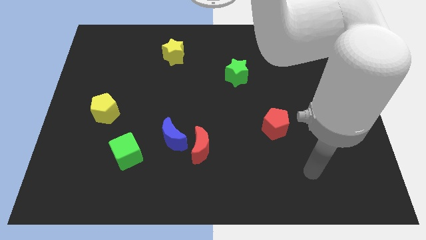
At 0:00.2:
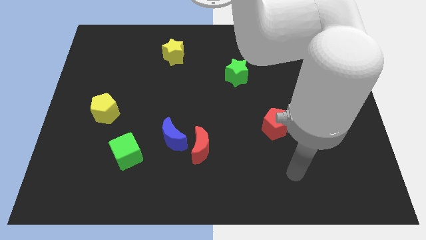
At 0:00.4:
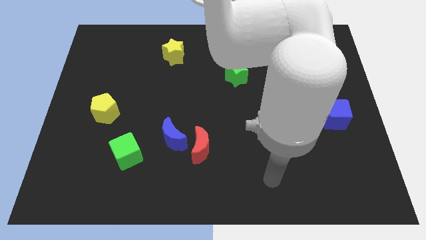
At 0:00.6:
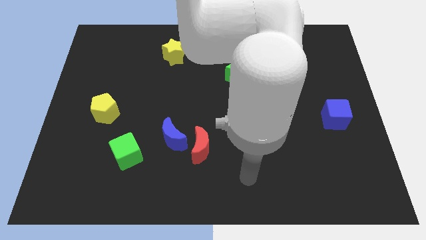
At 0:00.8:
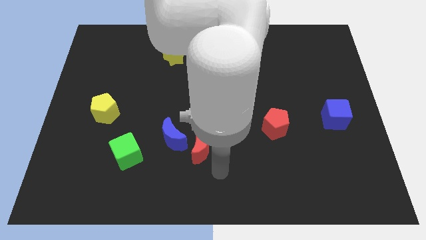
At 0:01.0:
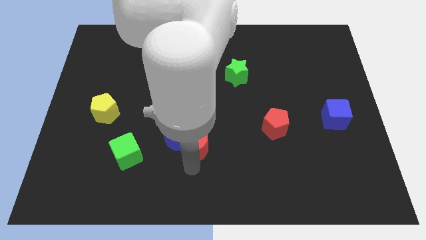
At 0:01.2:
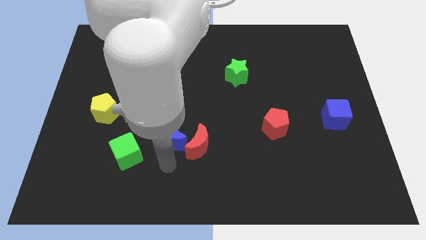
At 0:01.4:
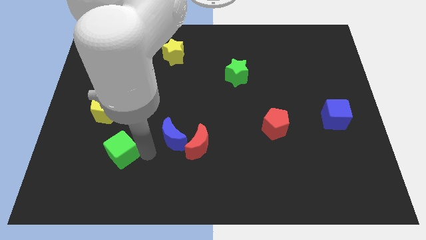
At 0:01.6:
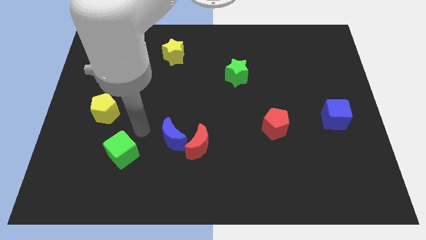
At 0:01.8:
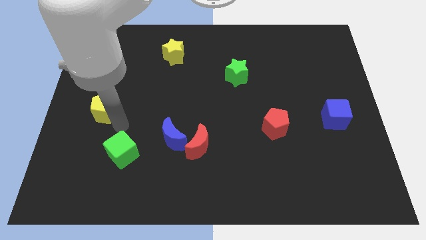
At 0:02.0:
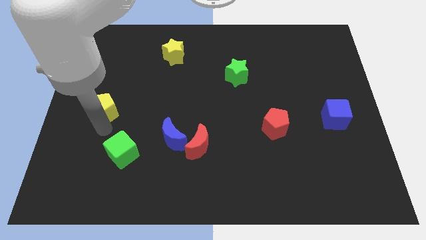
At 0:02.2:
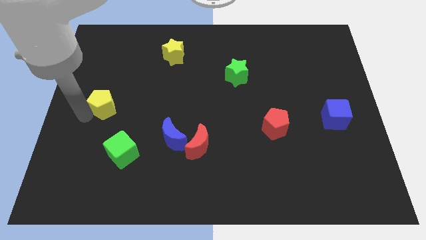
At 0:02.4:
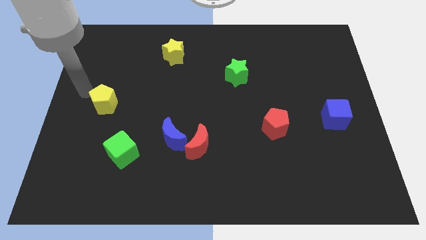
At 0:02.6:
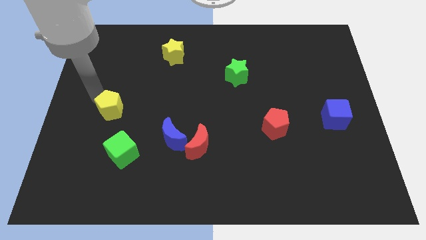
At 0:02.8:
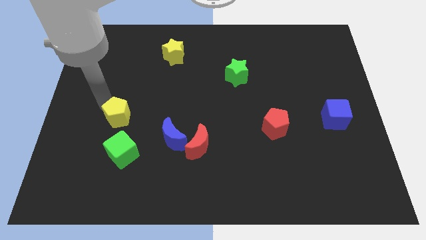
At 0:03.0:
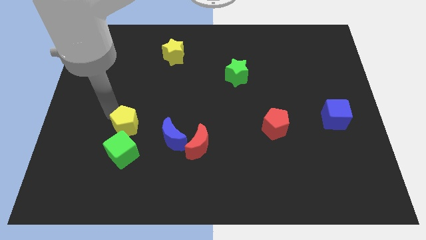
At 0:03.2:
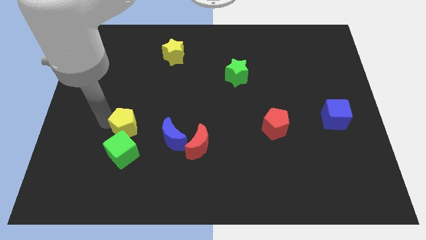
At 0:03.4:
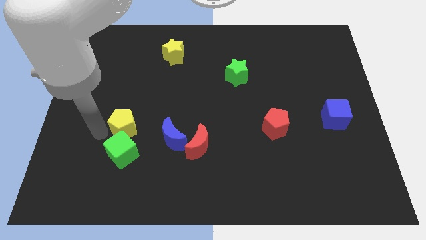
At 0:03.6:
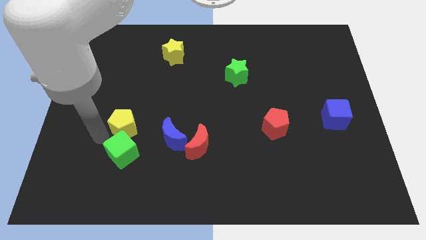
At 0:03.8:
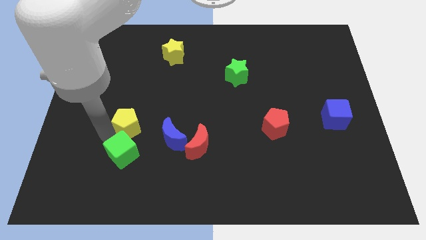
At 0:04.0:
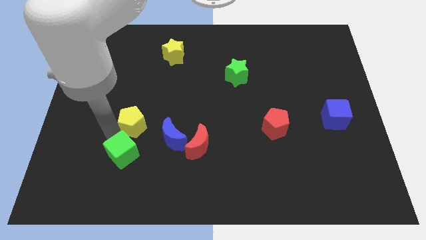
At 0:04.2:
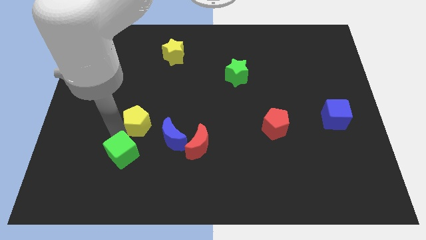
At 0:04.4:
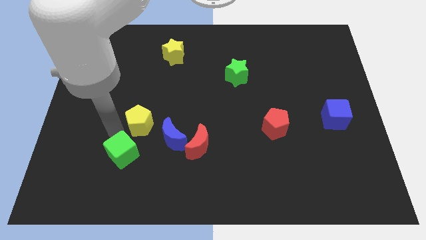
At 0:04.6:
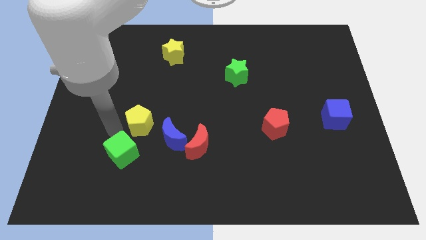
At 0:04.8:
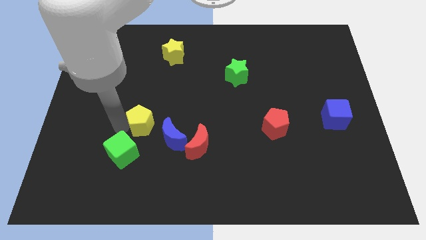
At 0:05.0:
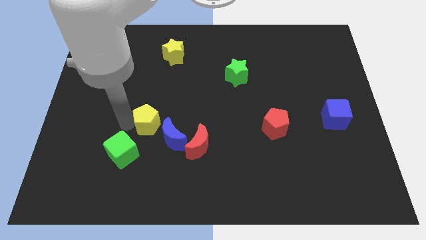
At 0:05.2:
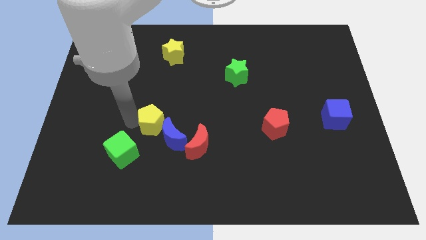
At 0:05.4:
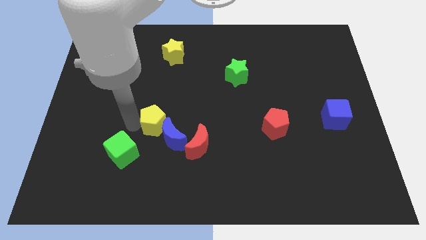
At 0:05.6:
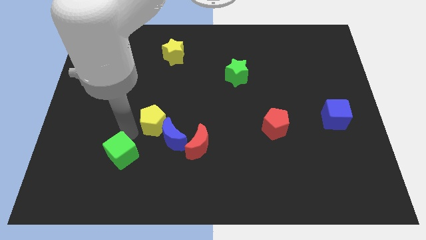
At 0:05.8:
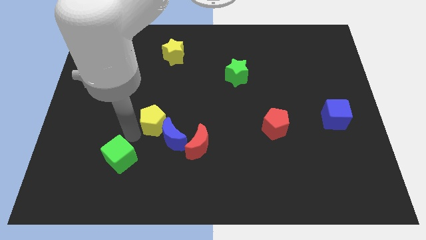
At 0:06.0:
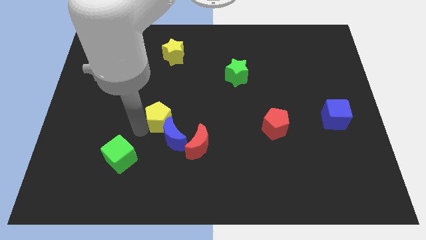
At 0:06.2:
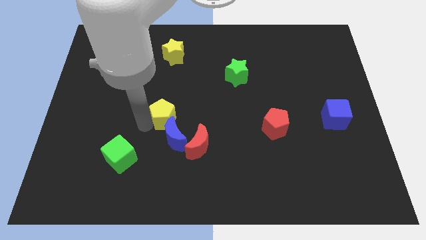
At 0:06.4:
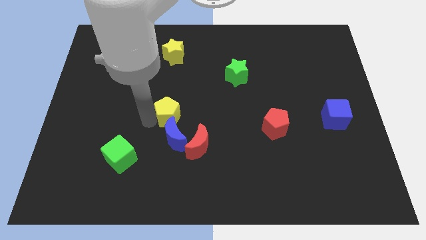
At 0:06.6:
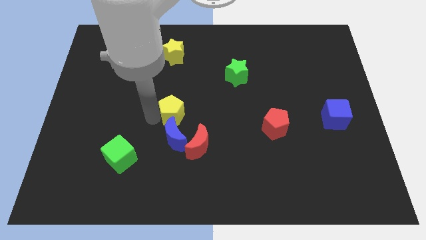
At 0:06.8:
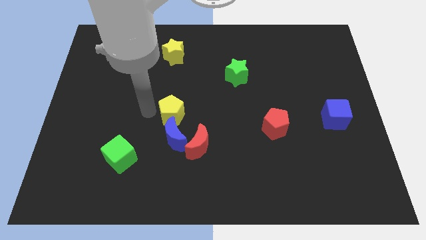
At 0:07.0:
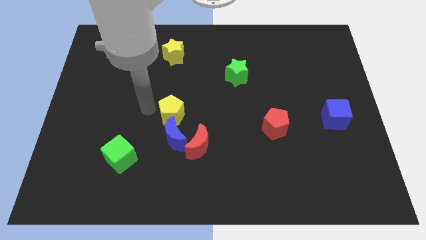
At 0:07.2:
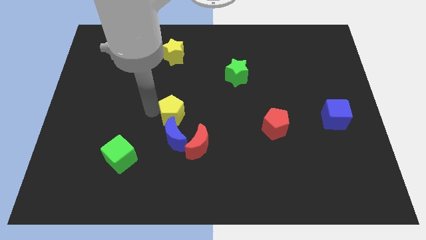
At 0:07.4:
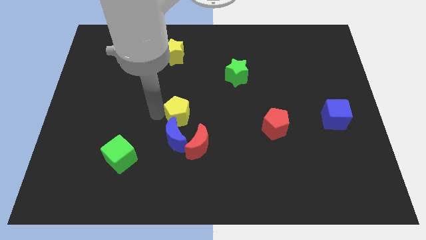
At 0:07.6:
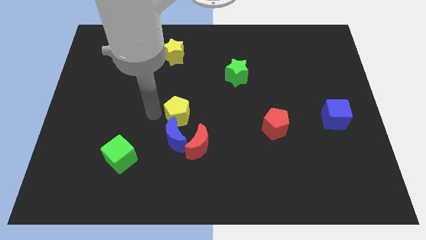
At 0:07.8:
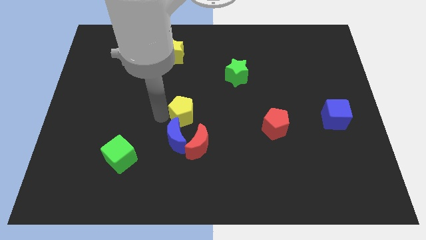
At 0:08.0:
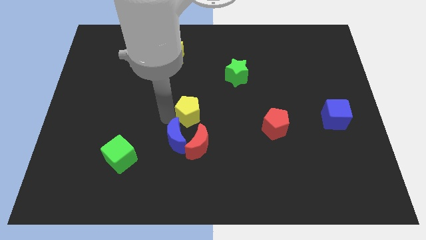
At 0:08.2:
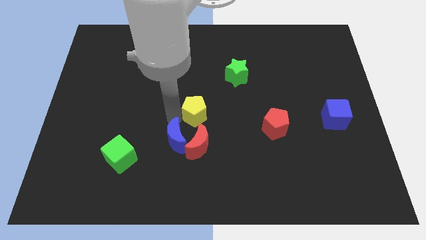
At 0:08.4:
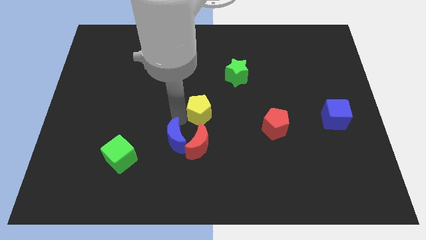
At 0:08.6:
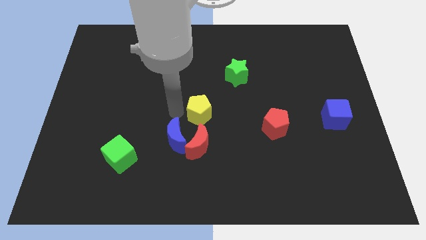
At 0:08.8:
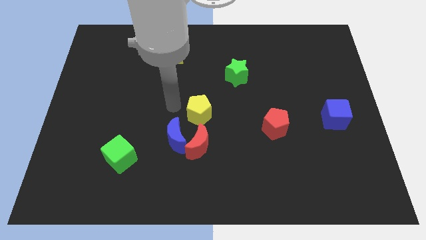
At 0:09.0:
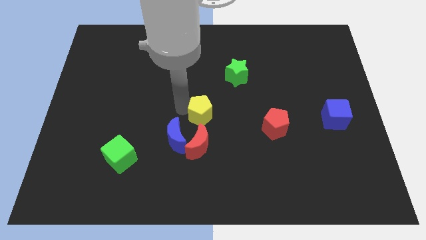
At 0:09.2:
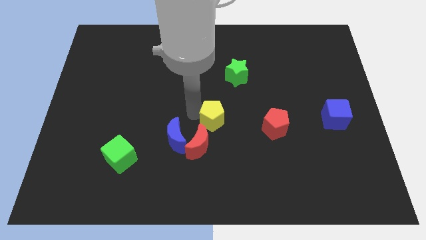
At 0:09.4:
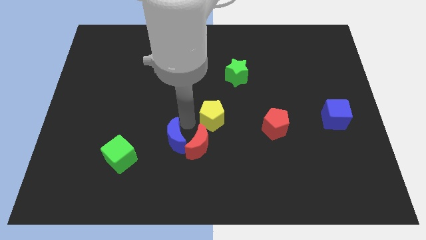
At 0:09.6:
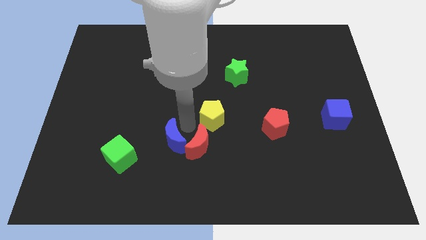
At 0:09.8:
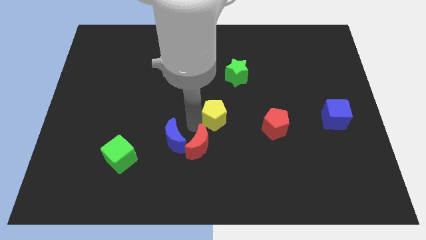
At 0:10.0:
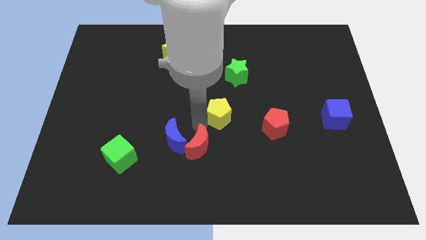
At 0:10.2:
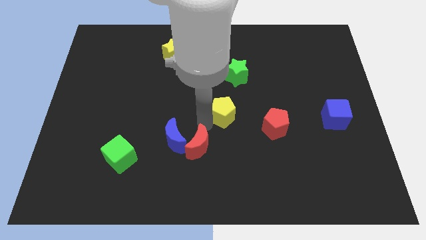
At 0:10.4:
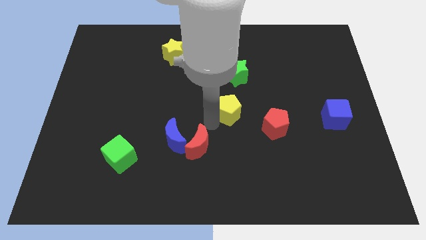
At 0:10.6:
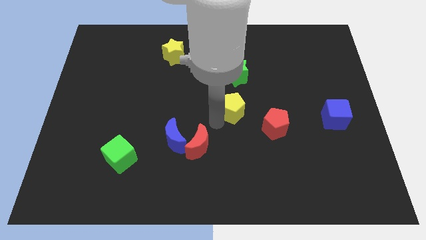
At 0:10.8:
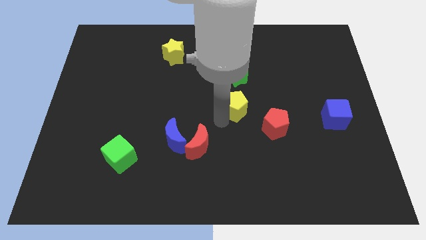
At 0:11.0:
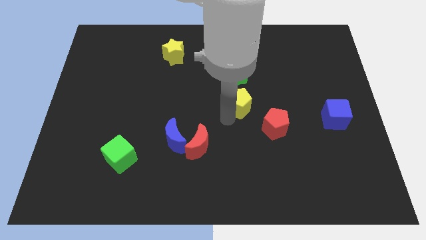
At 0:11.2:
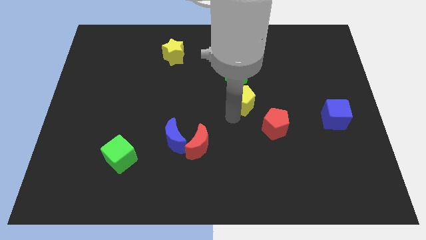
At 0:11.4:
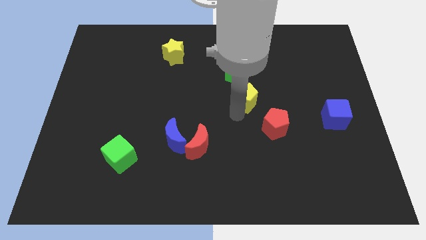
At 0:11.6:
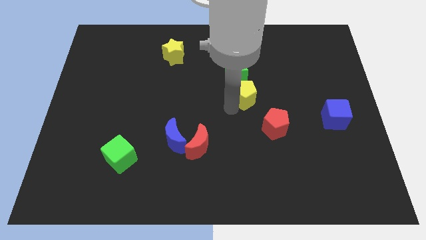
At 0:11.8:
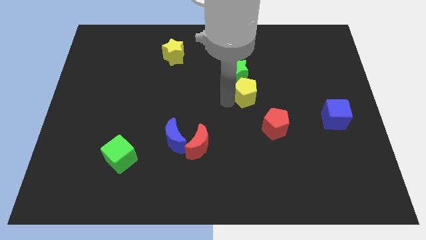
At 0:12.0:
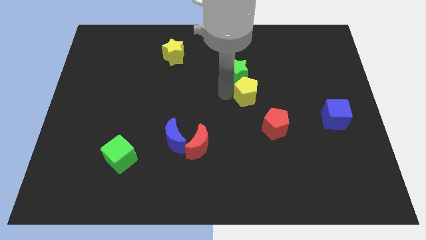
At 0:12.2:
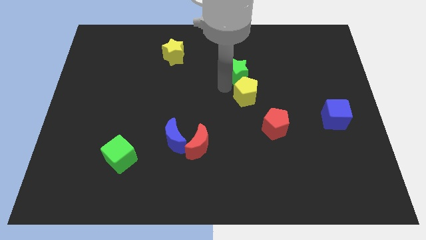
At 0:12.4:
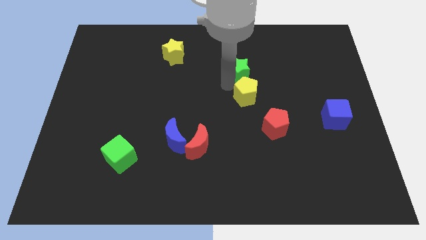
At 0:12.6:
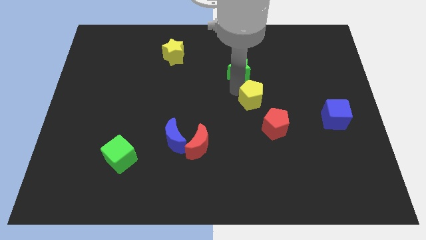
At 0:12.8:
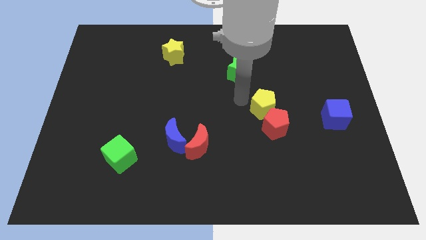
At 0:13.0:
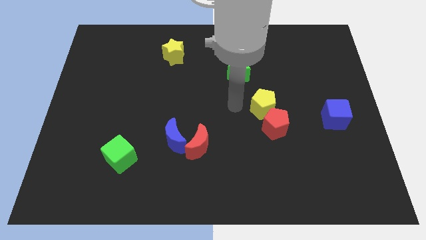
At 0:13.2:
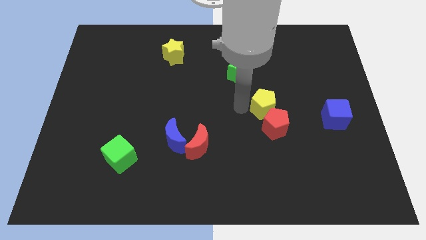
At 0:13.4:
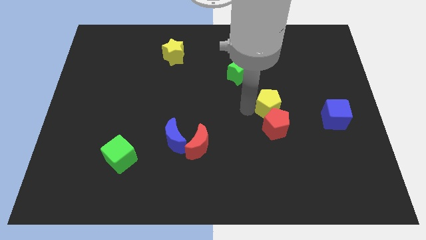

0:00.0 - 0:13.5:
put the yellow pentagon diagonally up and to the right of the red pentagon
